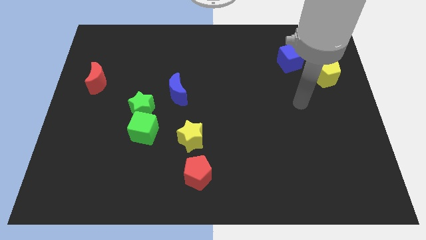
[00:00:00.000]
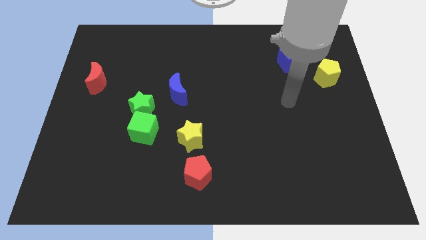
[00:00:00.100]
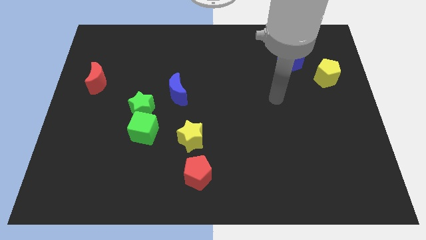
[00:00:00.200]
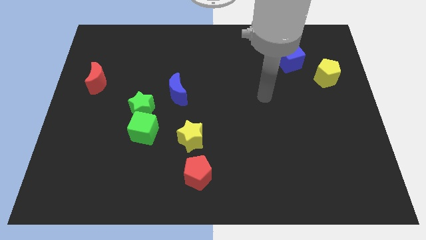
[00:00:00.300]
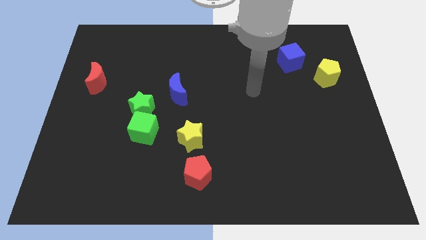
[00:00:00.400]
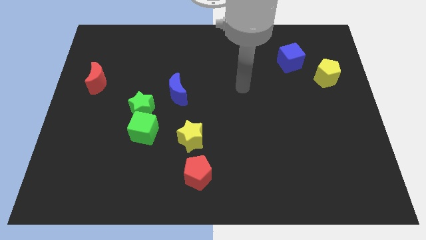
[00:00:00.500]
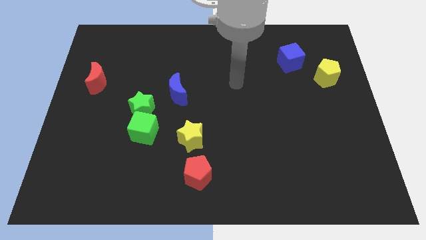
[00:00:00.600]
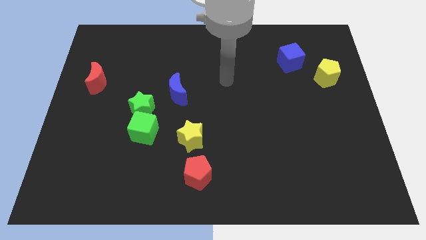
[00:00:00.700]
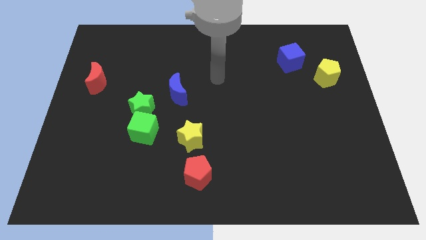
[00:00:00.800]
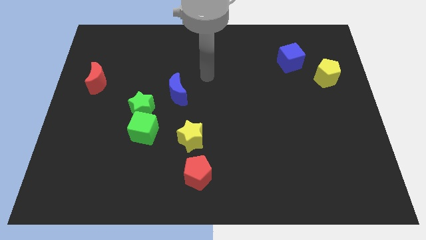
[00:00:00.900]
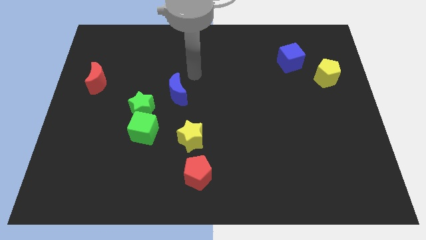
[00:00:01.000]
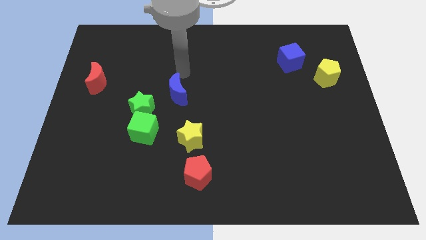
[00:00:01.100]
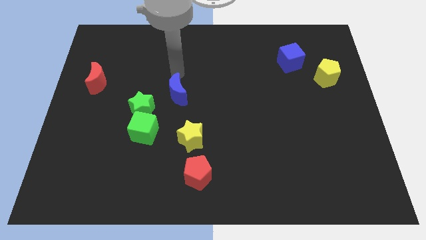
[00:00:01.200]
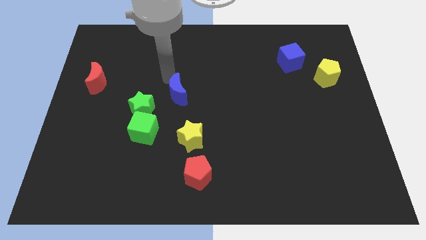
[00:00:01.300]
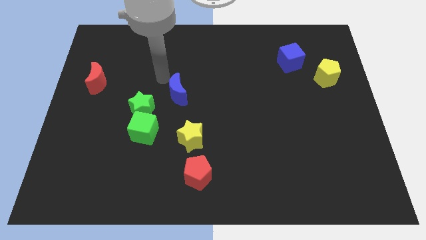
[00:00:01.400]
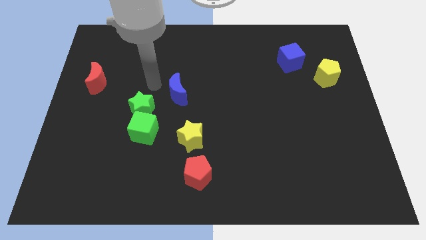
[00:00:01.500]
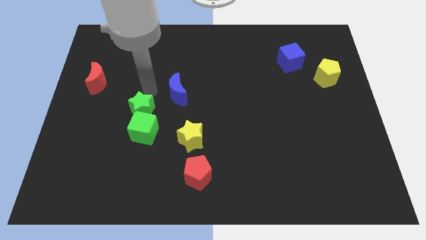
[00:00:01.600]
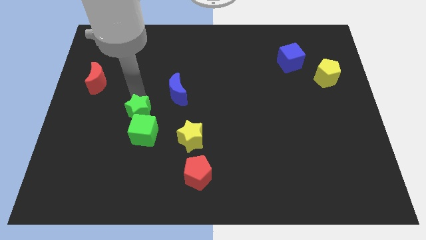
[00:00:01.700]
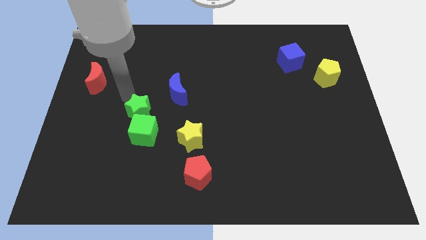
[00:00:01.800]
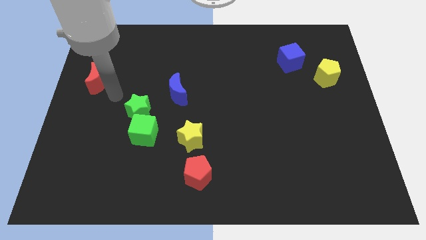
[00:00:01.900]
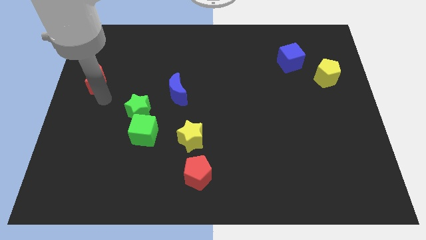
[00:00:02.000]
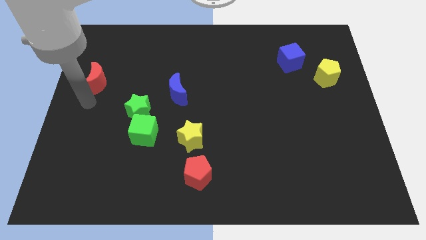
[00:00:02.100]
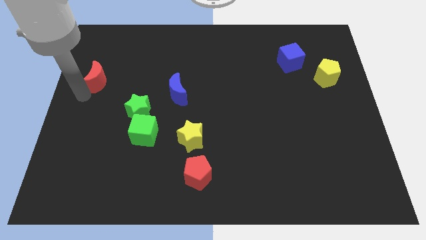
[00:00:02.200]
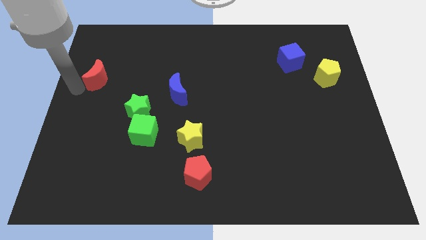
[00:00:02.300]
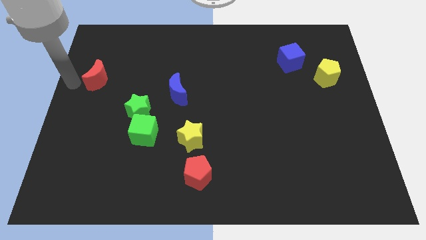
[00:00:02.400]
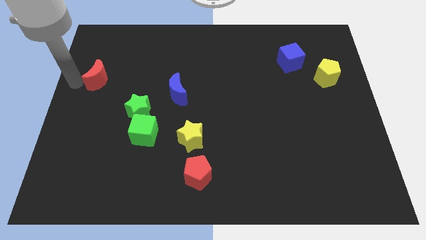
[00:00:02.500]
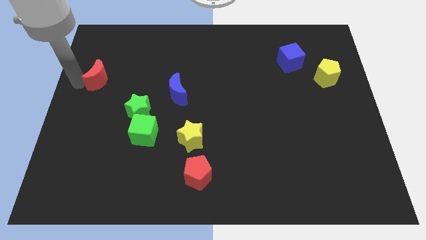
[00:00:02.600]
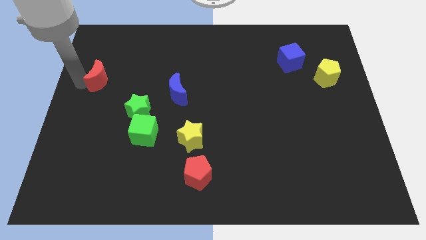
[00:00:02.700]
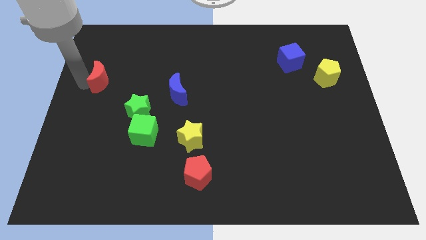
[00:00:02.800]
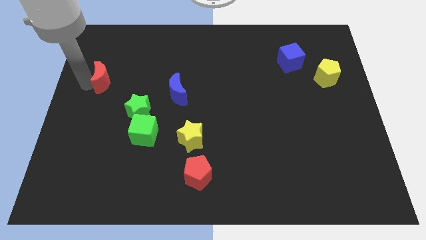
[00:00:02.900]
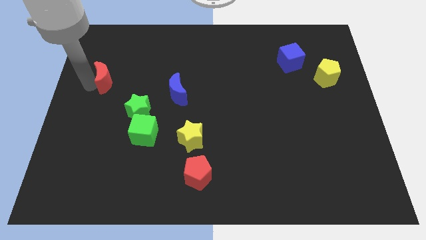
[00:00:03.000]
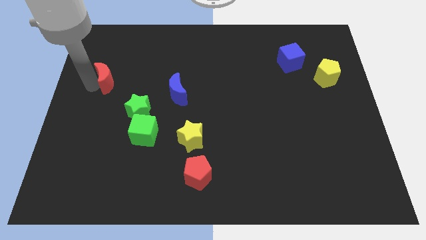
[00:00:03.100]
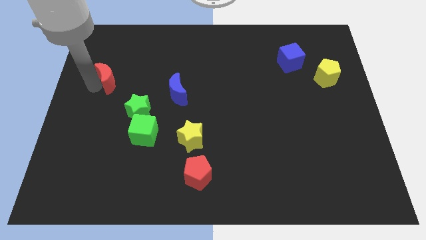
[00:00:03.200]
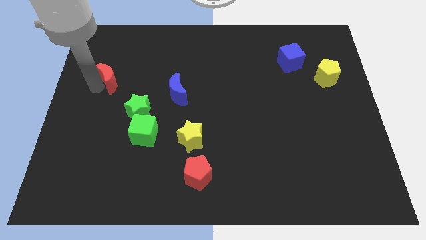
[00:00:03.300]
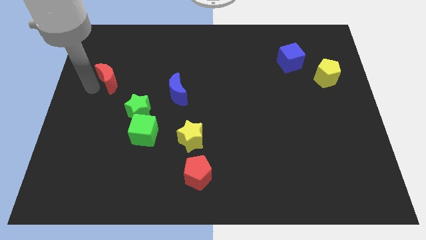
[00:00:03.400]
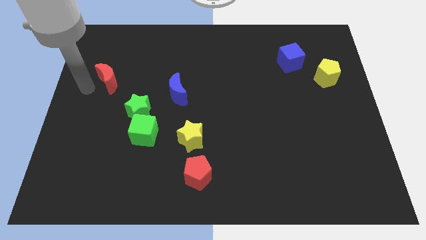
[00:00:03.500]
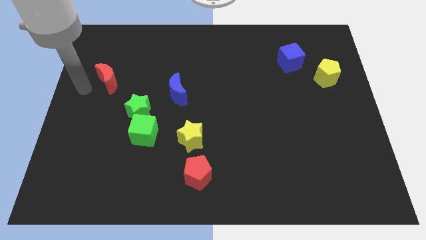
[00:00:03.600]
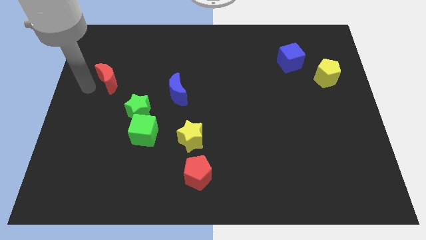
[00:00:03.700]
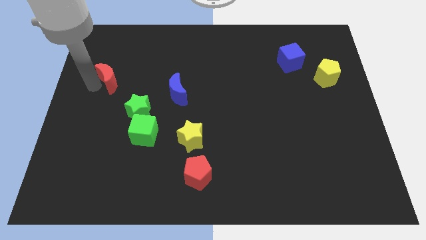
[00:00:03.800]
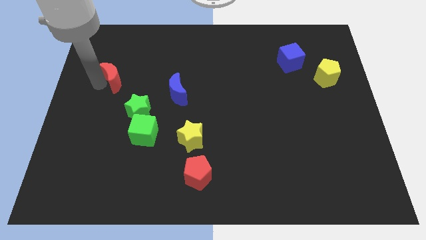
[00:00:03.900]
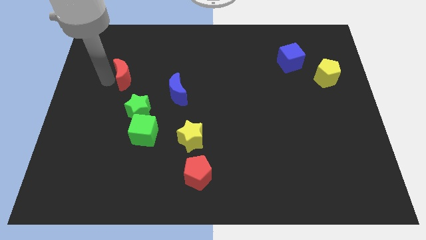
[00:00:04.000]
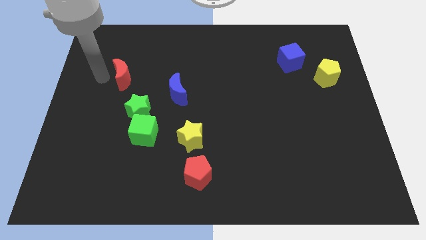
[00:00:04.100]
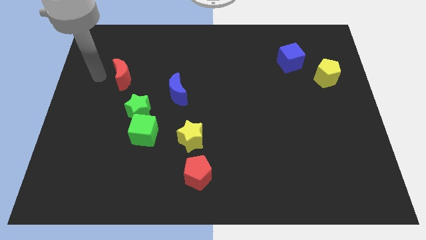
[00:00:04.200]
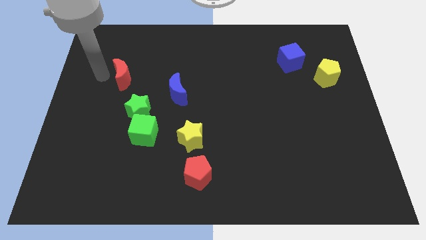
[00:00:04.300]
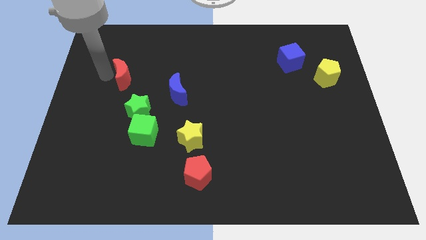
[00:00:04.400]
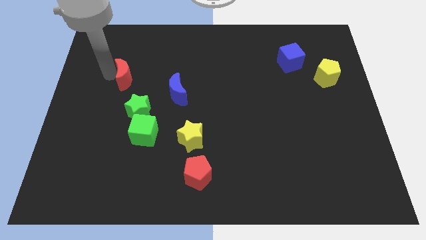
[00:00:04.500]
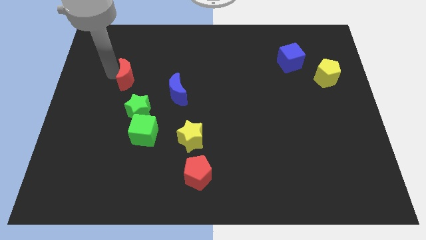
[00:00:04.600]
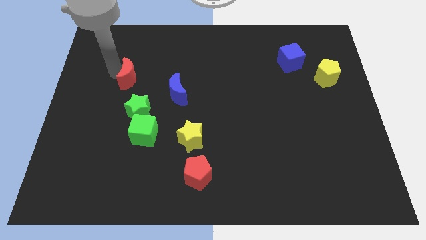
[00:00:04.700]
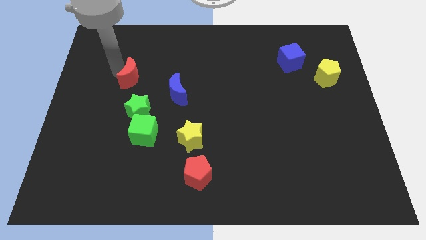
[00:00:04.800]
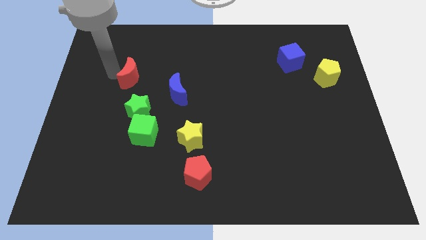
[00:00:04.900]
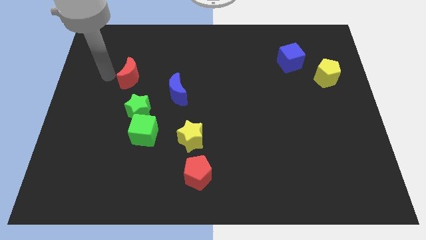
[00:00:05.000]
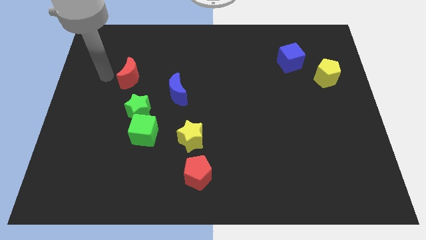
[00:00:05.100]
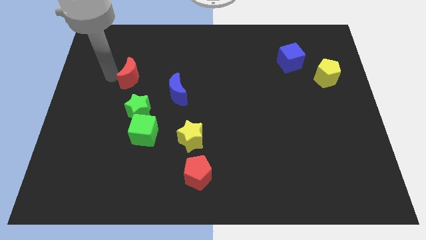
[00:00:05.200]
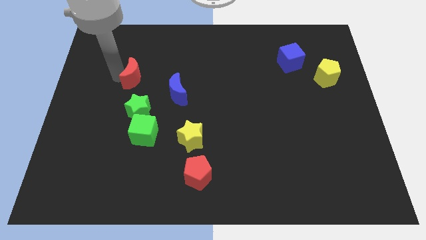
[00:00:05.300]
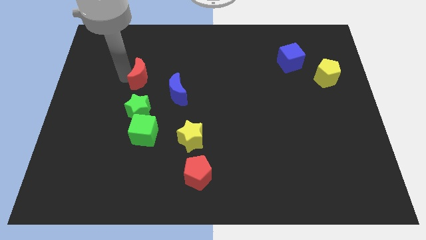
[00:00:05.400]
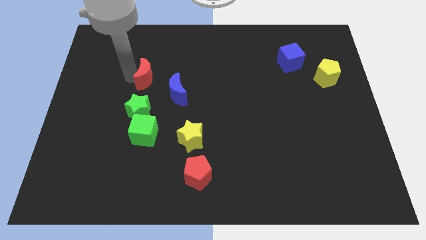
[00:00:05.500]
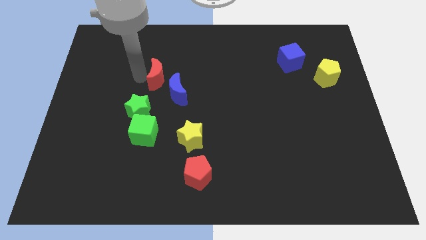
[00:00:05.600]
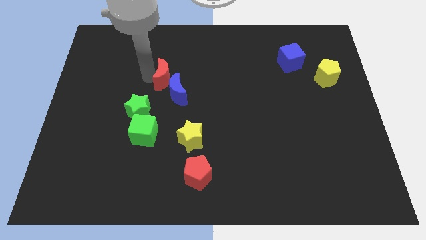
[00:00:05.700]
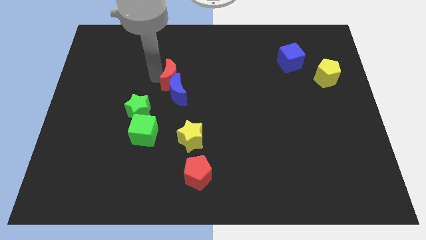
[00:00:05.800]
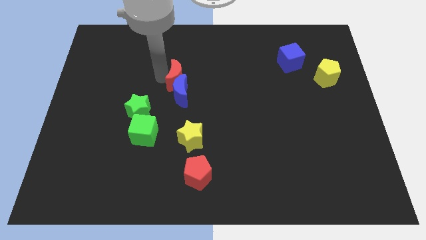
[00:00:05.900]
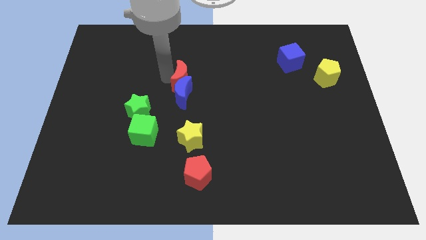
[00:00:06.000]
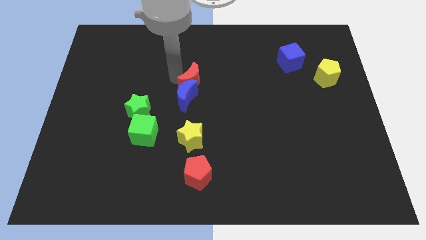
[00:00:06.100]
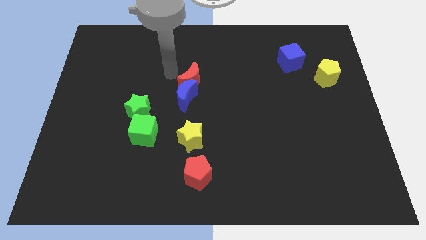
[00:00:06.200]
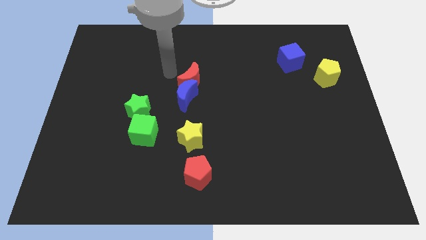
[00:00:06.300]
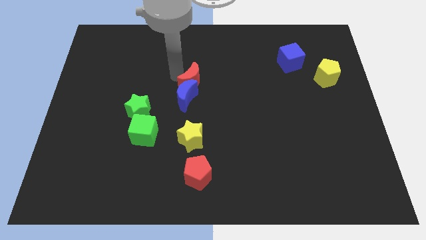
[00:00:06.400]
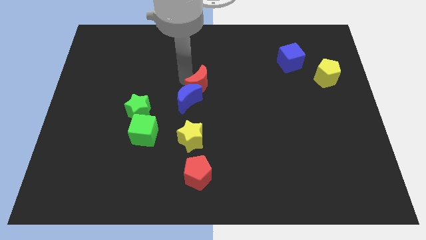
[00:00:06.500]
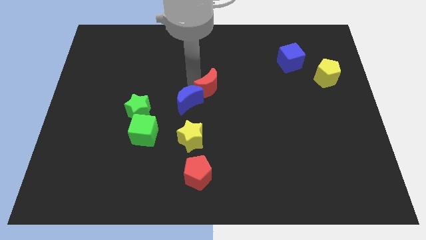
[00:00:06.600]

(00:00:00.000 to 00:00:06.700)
put the red moon to the right of the blue moon
